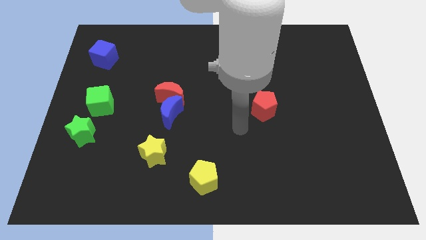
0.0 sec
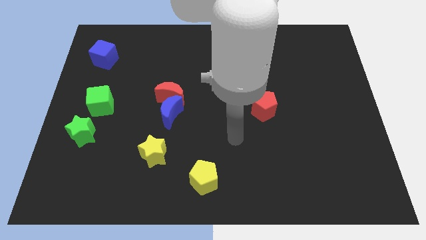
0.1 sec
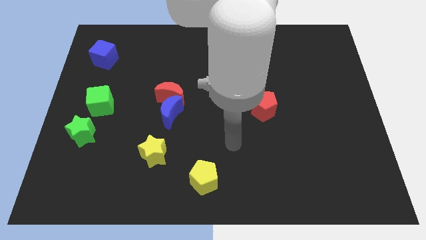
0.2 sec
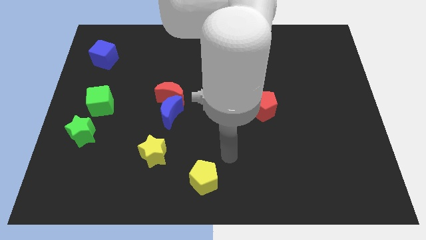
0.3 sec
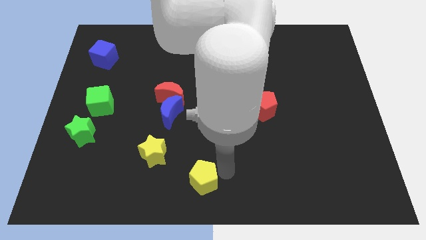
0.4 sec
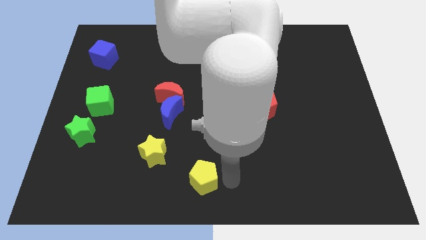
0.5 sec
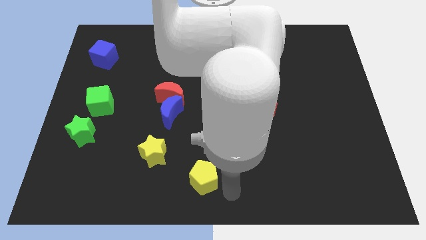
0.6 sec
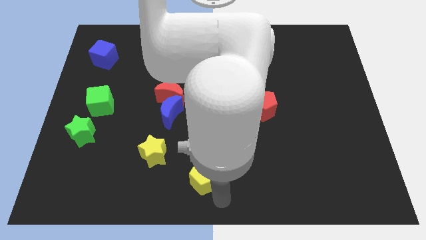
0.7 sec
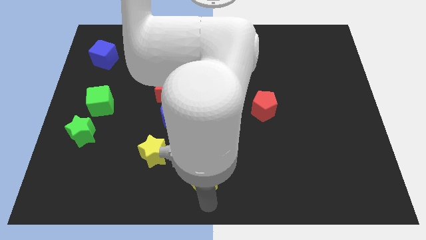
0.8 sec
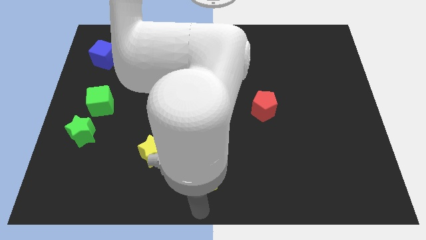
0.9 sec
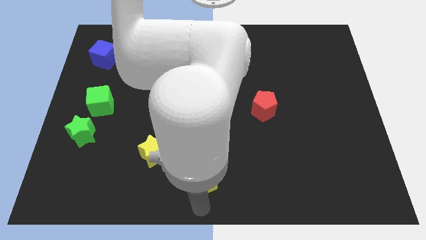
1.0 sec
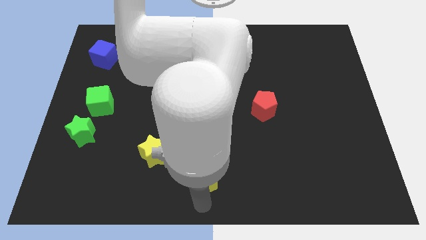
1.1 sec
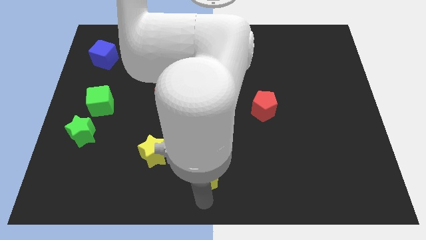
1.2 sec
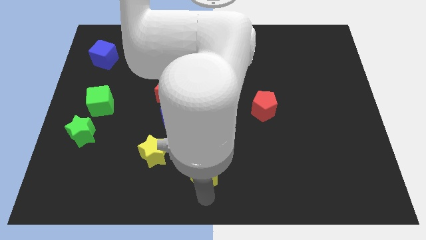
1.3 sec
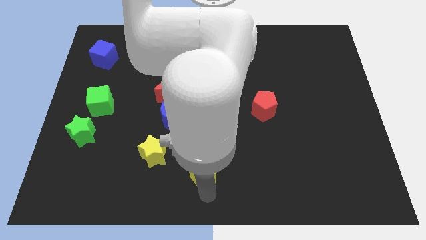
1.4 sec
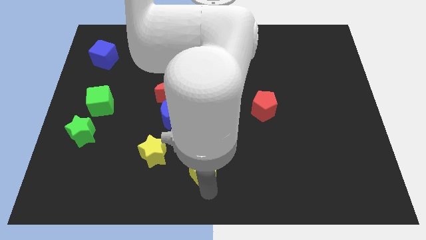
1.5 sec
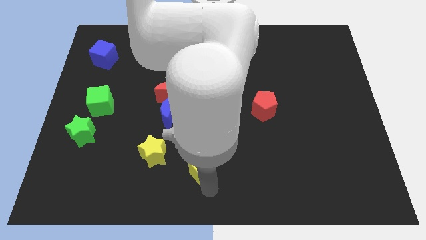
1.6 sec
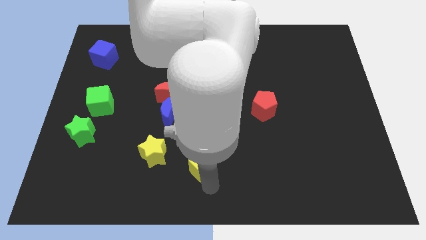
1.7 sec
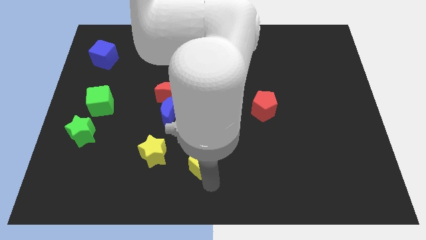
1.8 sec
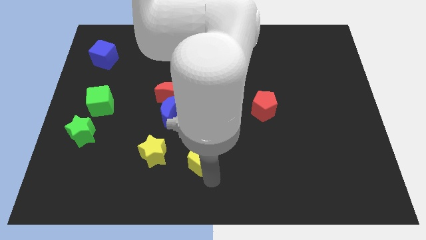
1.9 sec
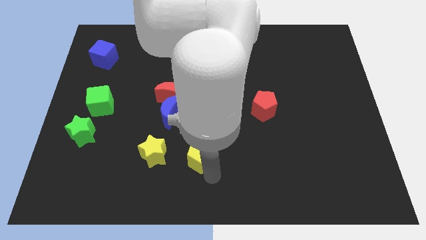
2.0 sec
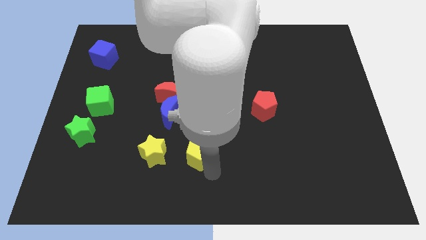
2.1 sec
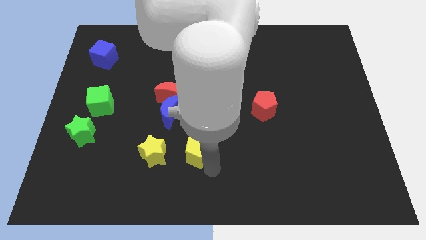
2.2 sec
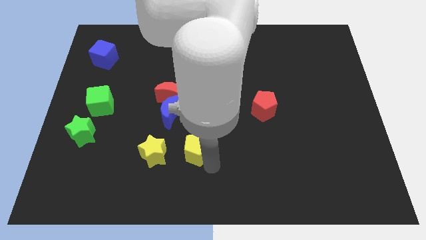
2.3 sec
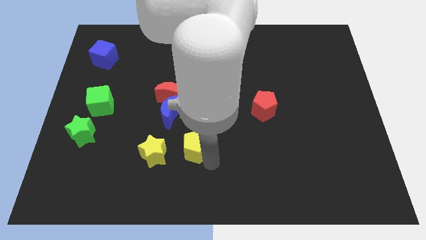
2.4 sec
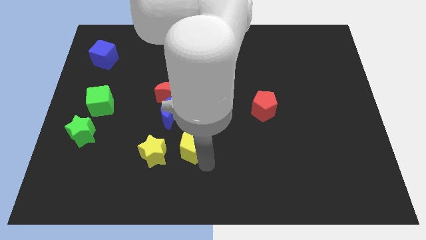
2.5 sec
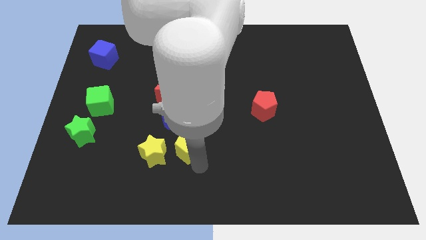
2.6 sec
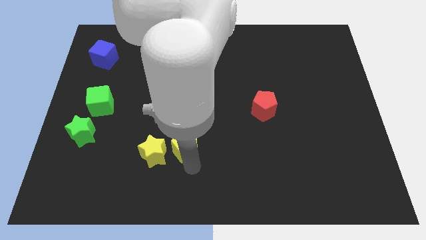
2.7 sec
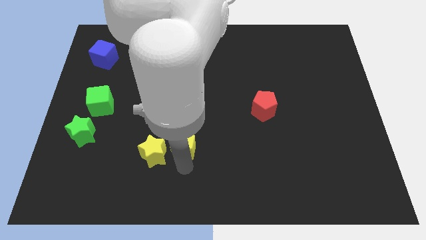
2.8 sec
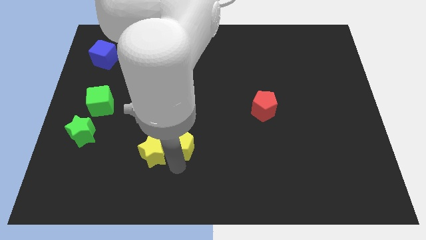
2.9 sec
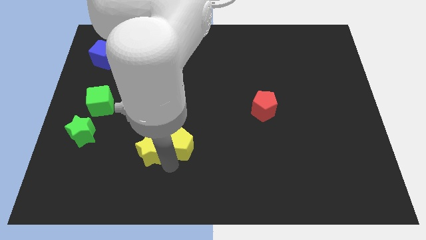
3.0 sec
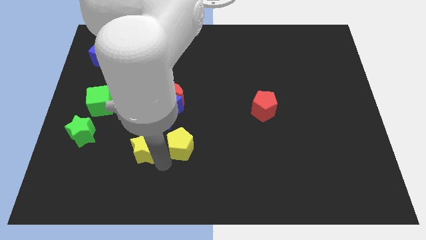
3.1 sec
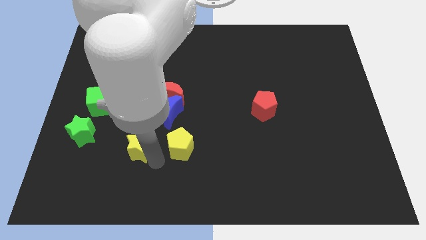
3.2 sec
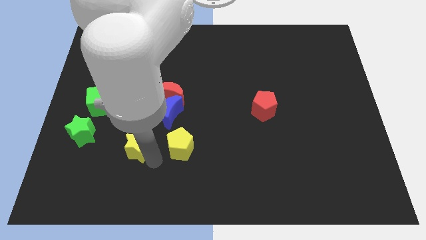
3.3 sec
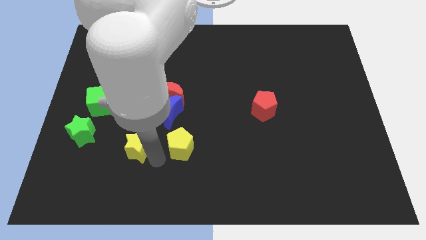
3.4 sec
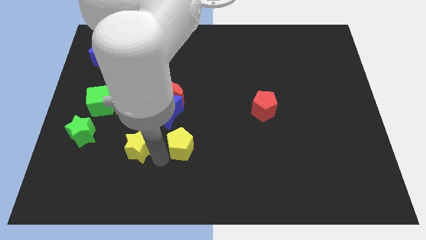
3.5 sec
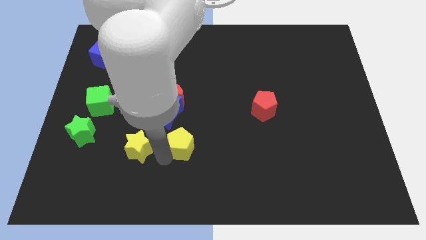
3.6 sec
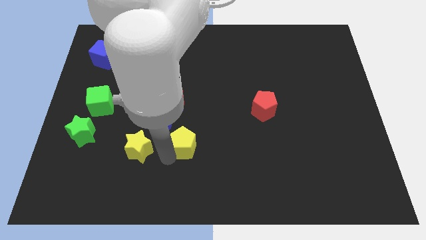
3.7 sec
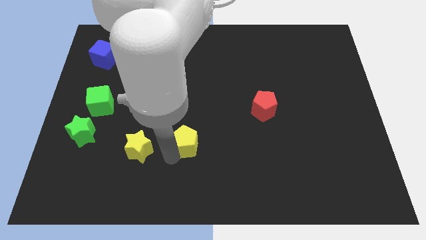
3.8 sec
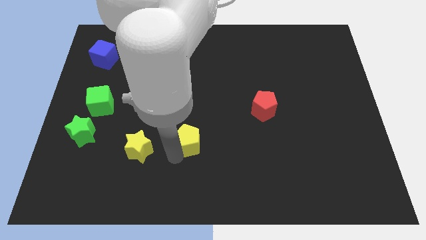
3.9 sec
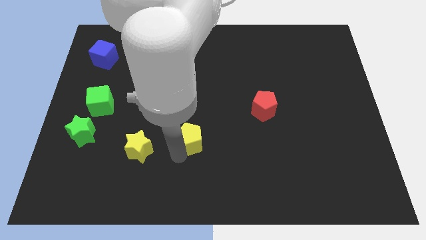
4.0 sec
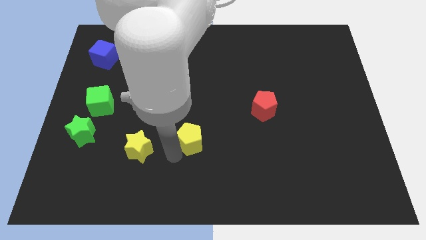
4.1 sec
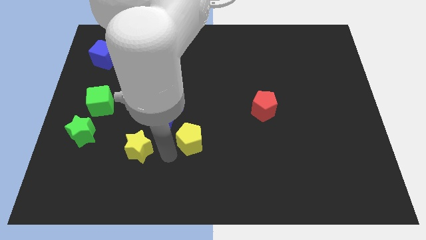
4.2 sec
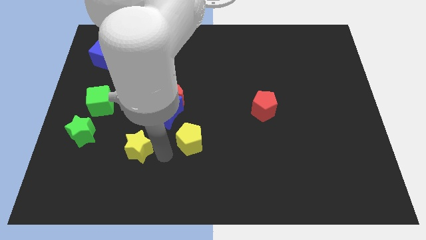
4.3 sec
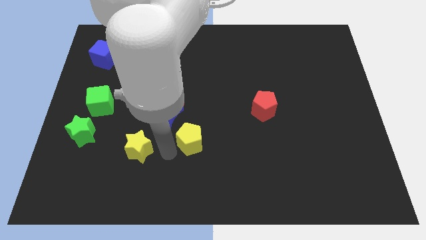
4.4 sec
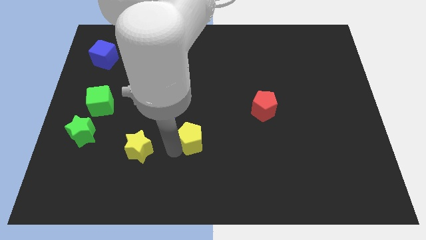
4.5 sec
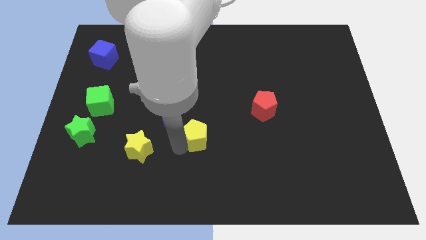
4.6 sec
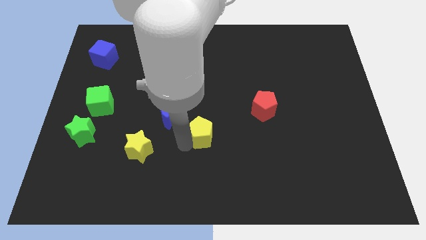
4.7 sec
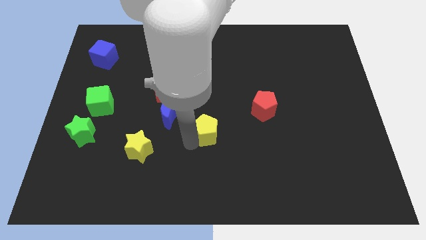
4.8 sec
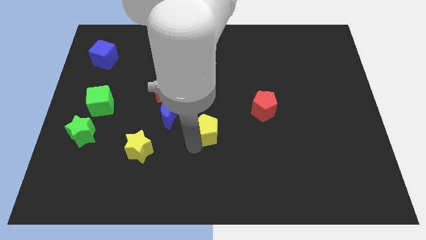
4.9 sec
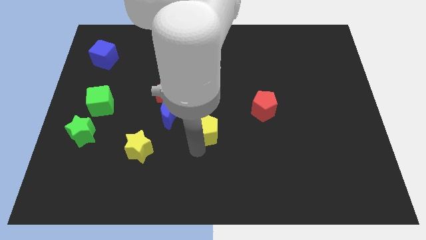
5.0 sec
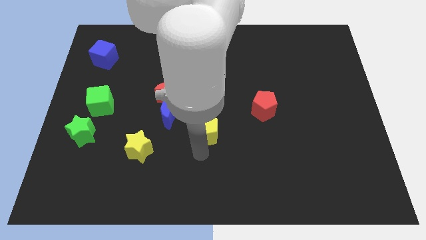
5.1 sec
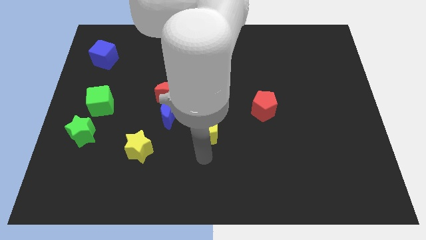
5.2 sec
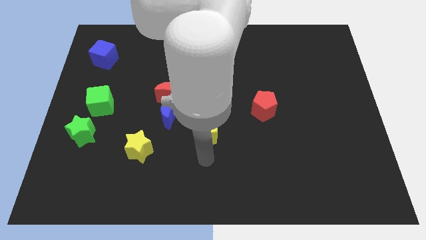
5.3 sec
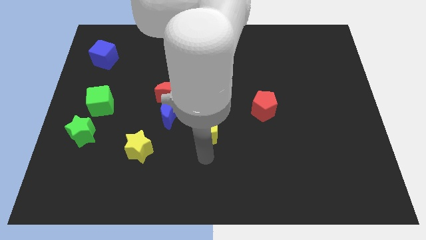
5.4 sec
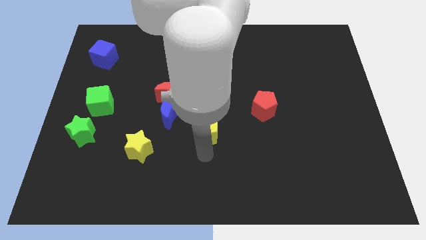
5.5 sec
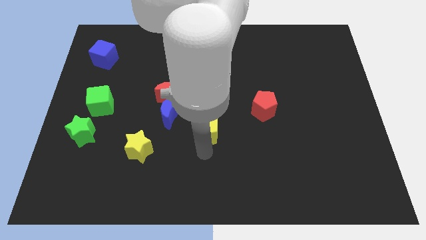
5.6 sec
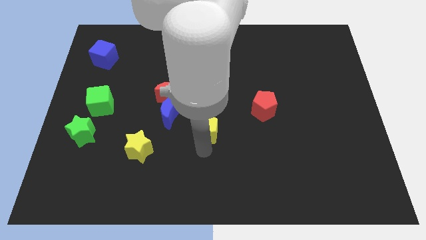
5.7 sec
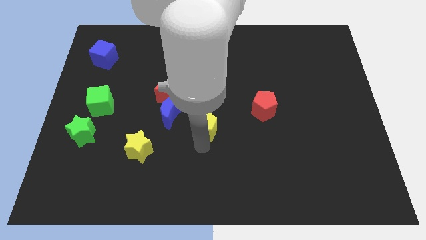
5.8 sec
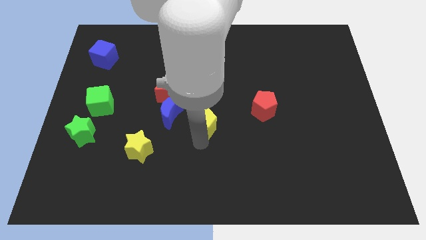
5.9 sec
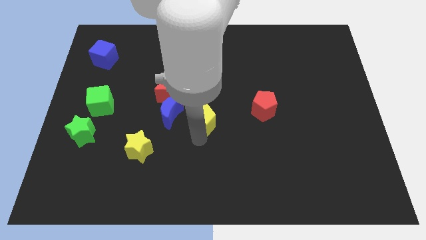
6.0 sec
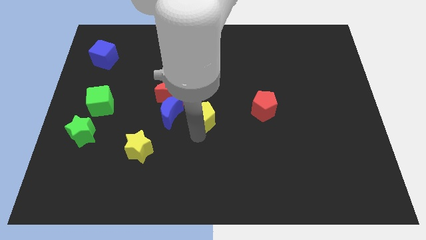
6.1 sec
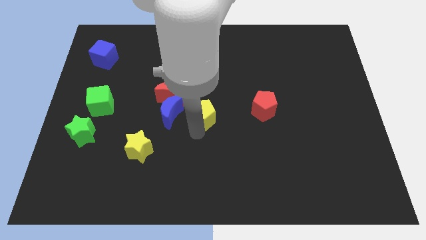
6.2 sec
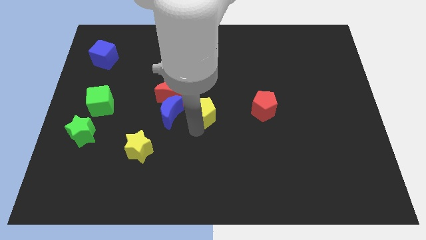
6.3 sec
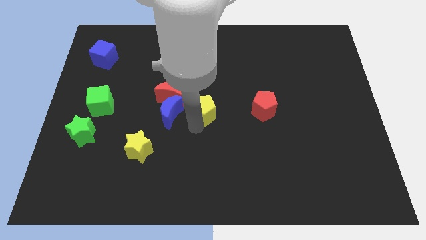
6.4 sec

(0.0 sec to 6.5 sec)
slide the yellow pentagon right of the red moon

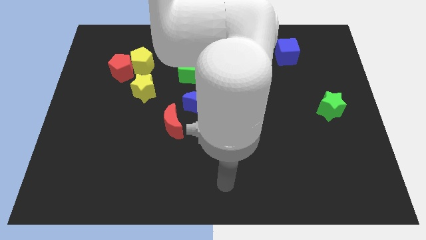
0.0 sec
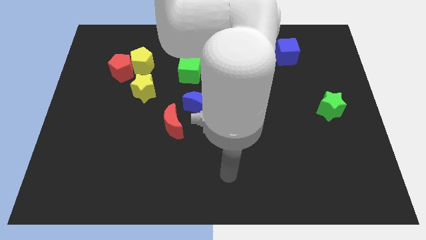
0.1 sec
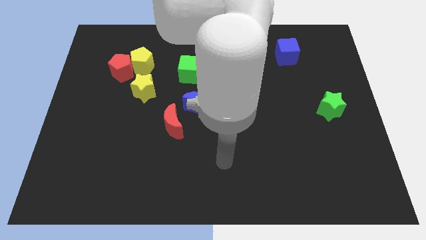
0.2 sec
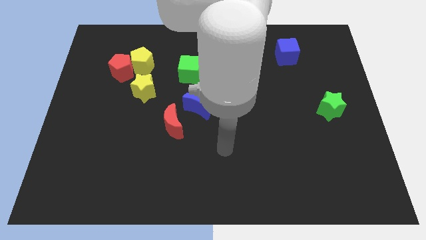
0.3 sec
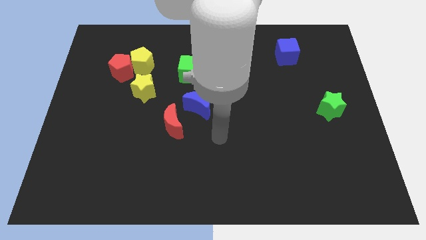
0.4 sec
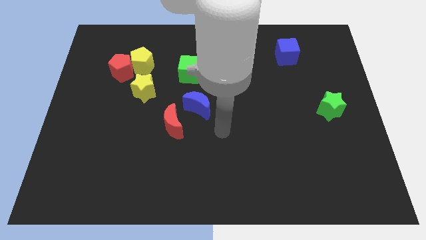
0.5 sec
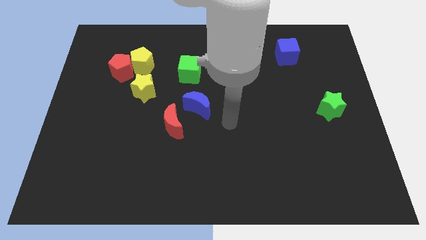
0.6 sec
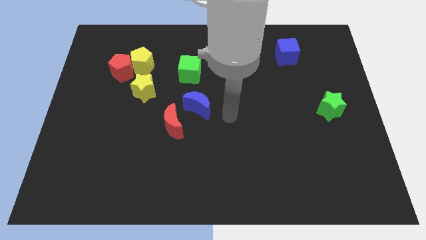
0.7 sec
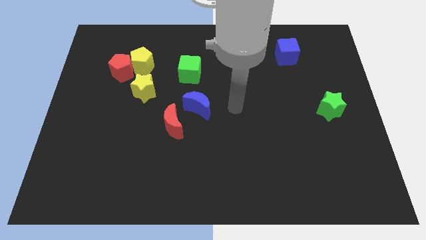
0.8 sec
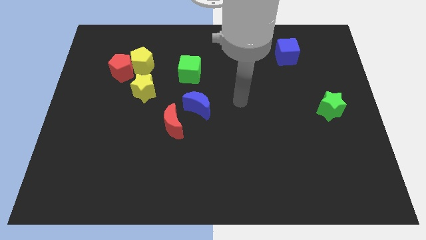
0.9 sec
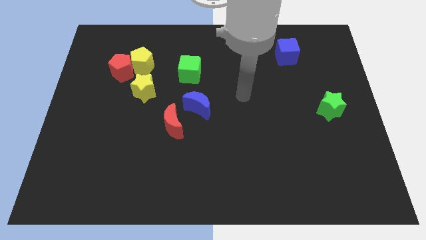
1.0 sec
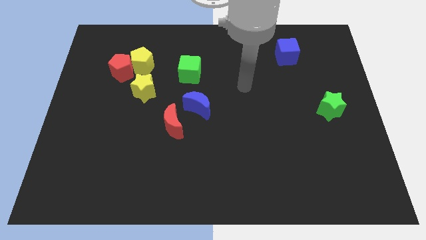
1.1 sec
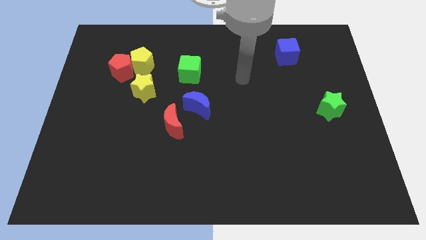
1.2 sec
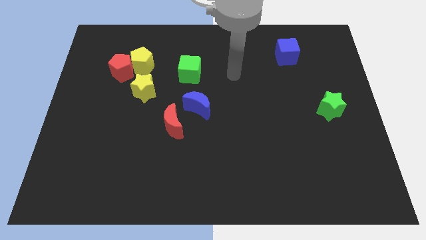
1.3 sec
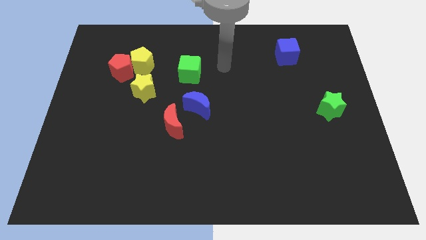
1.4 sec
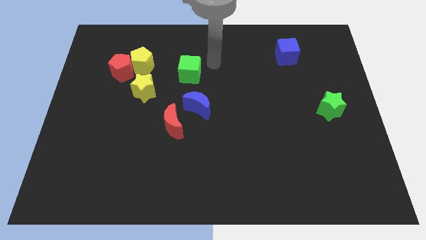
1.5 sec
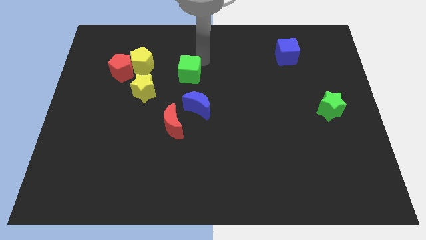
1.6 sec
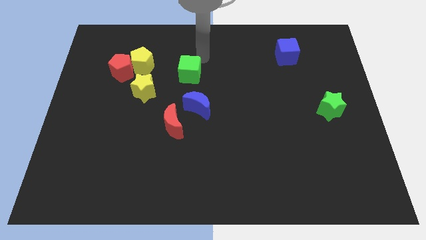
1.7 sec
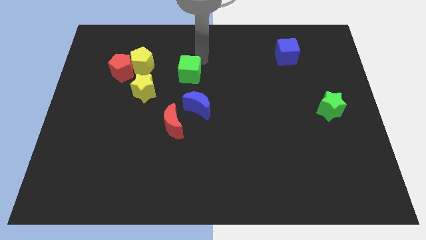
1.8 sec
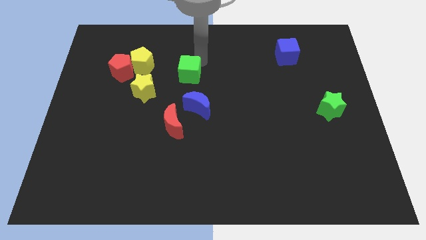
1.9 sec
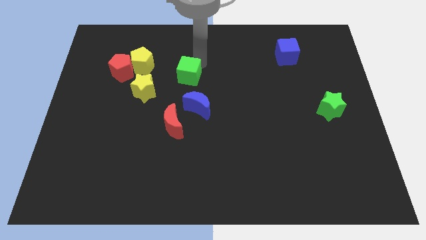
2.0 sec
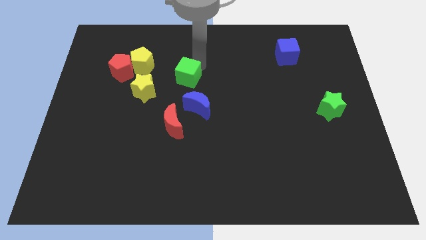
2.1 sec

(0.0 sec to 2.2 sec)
move the green cube to the top side of the red moon
